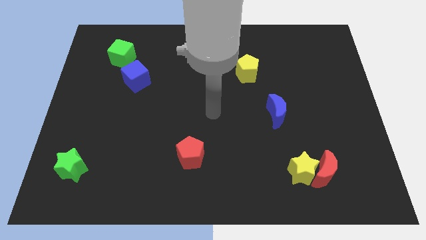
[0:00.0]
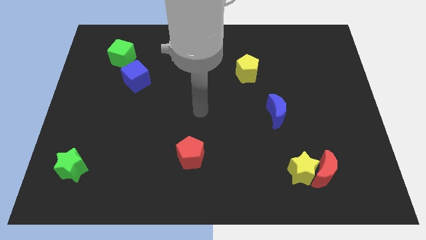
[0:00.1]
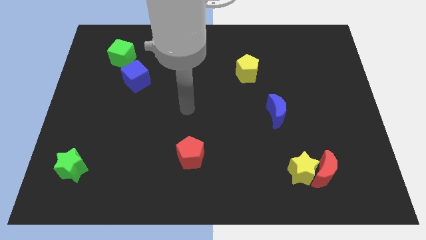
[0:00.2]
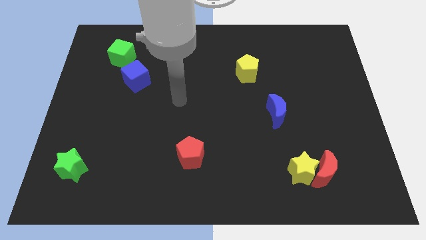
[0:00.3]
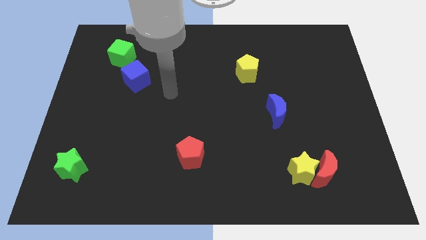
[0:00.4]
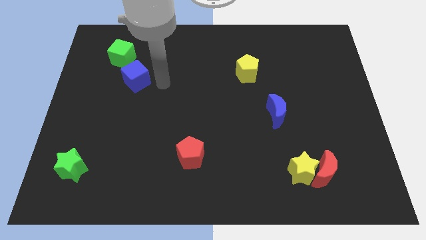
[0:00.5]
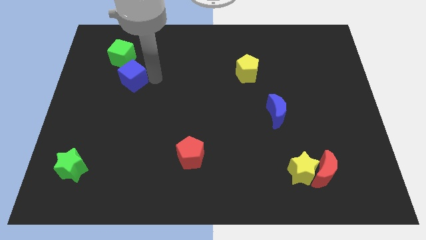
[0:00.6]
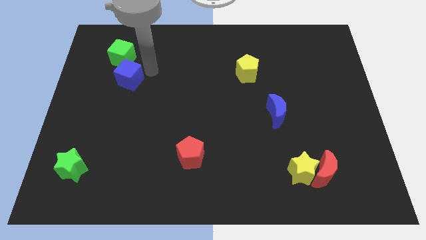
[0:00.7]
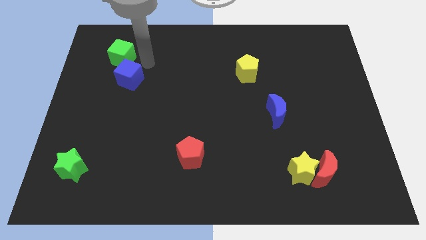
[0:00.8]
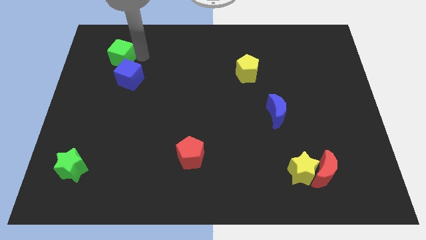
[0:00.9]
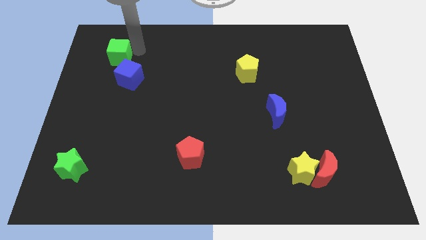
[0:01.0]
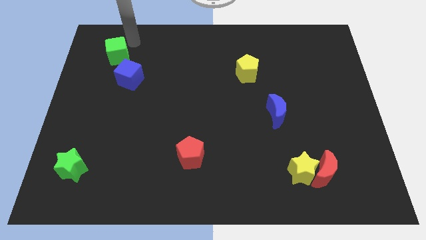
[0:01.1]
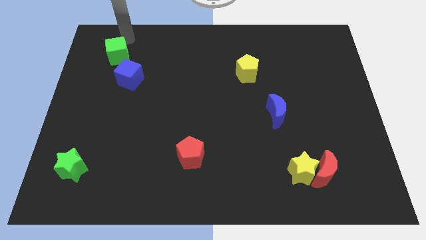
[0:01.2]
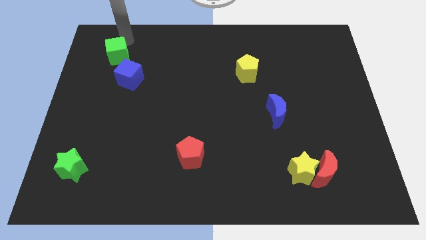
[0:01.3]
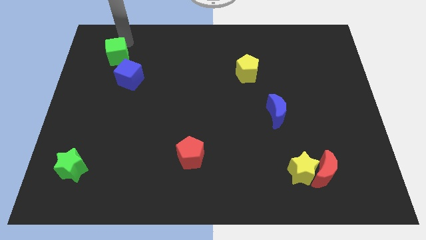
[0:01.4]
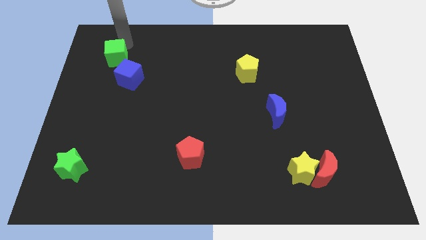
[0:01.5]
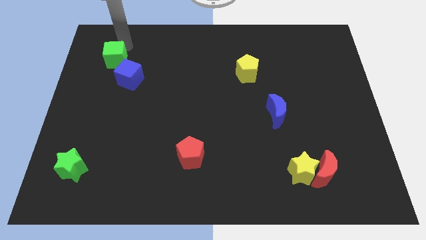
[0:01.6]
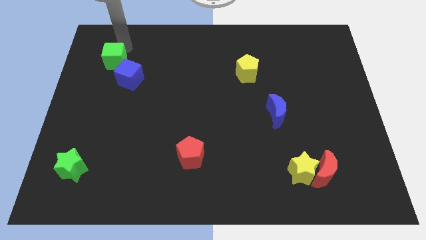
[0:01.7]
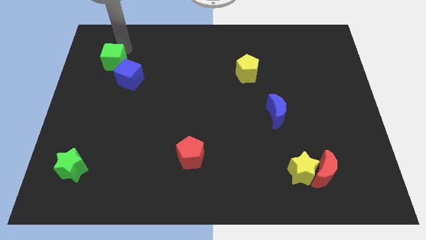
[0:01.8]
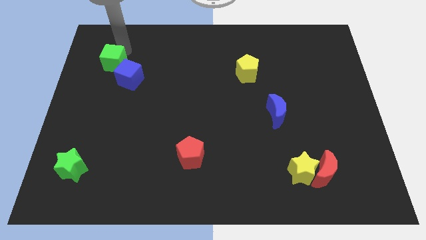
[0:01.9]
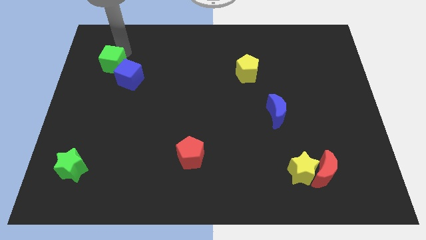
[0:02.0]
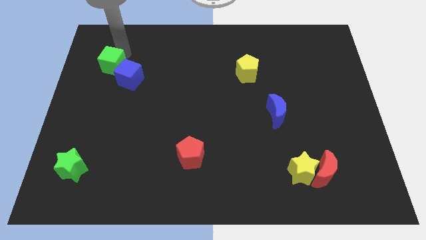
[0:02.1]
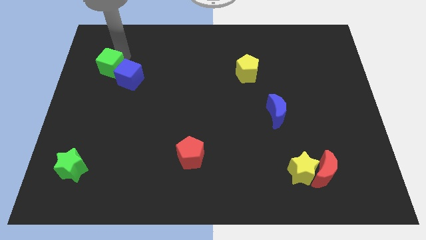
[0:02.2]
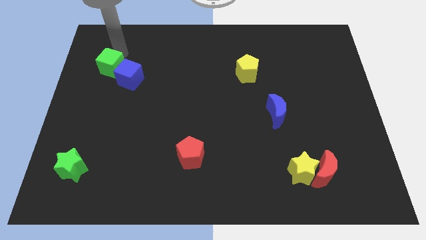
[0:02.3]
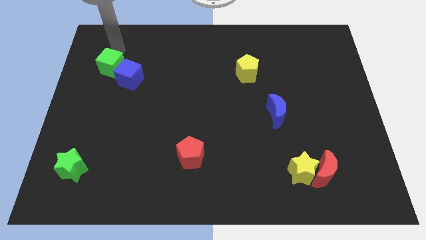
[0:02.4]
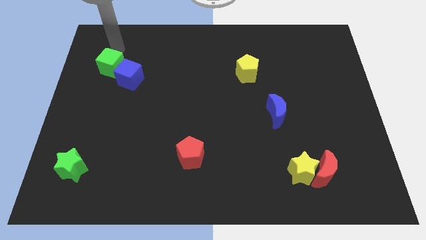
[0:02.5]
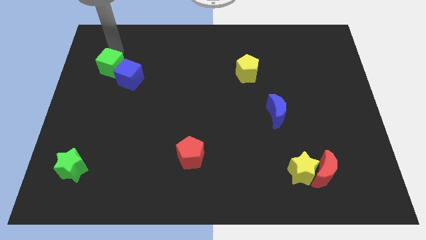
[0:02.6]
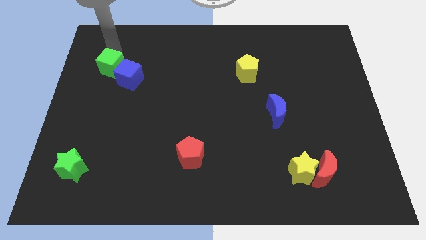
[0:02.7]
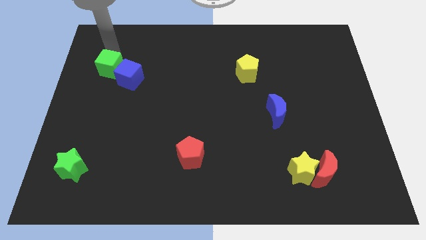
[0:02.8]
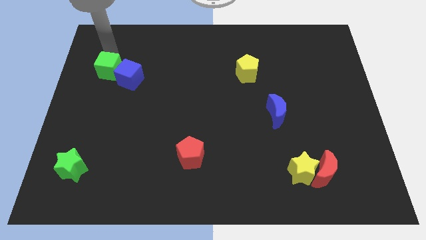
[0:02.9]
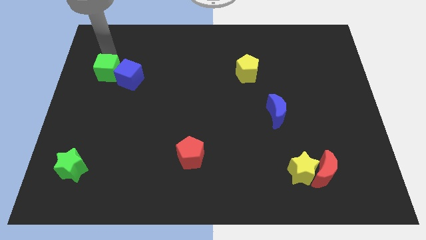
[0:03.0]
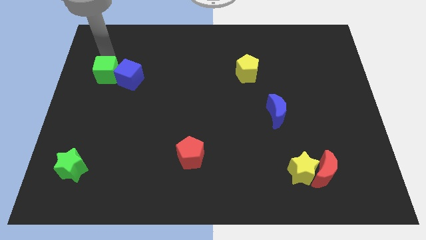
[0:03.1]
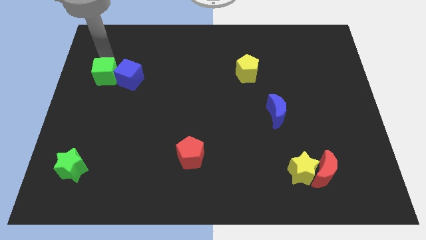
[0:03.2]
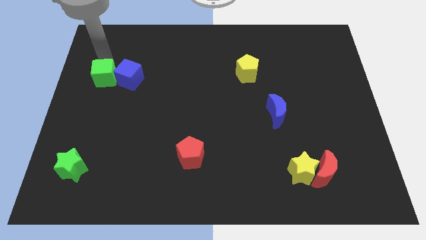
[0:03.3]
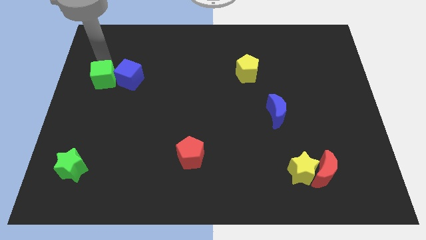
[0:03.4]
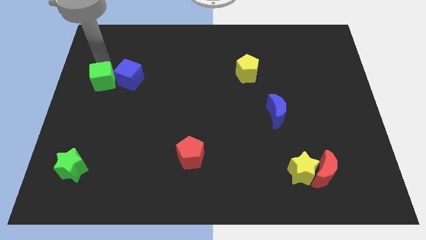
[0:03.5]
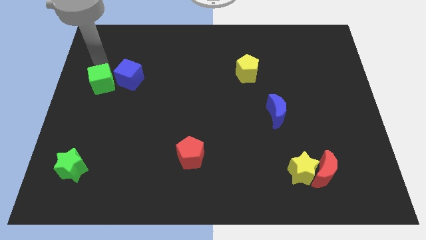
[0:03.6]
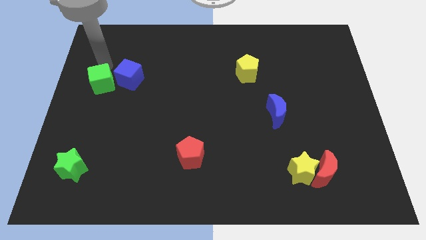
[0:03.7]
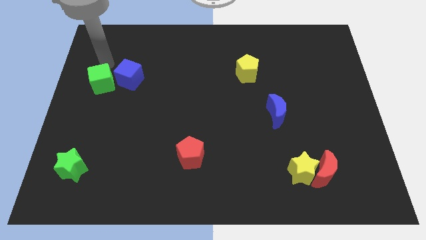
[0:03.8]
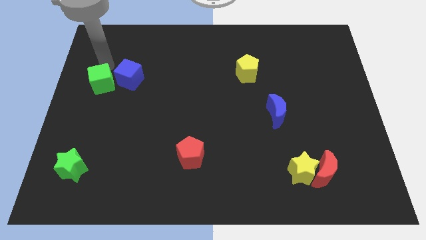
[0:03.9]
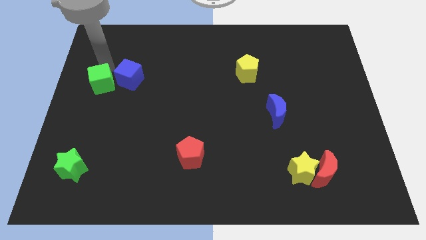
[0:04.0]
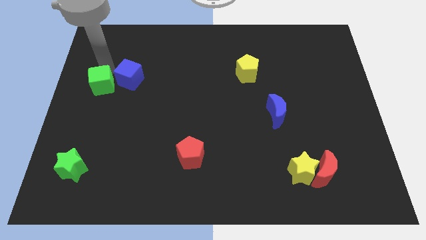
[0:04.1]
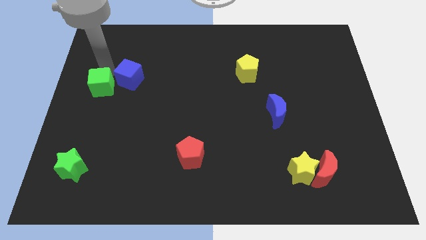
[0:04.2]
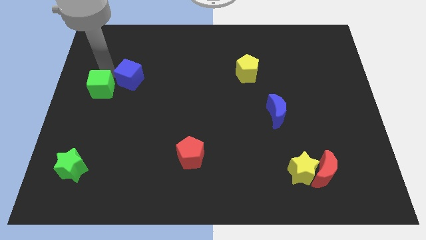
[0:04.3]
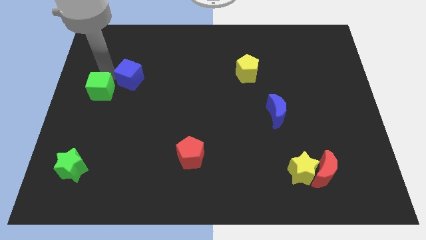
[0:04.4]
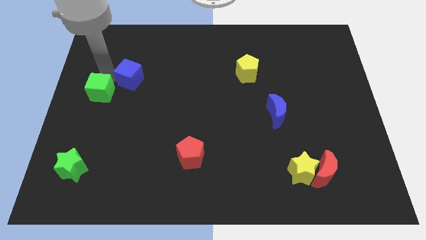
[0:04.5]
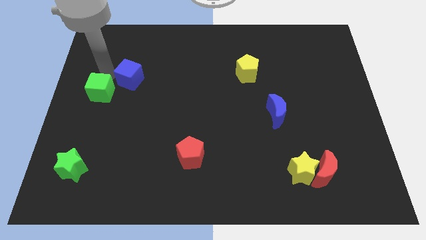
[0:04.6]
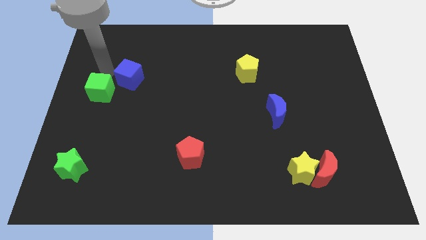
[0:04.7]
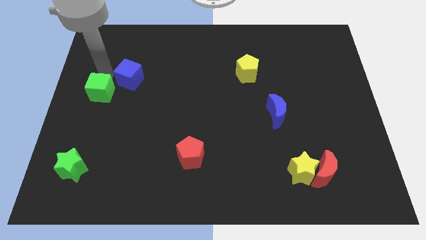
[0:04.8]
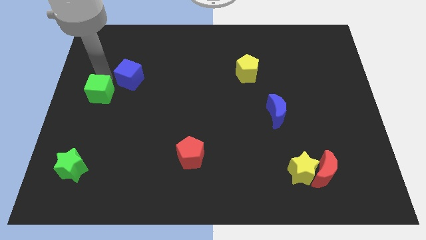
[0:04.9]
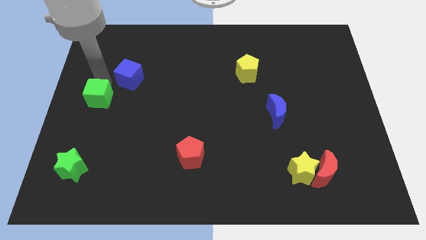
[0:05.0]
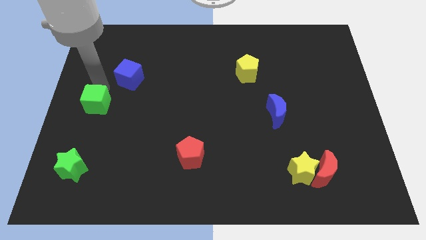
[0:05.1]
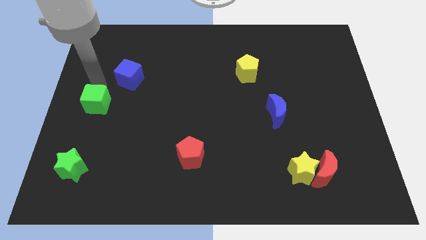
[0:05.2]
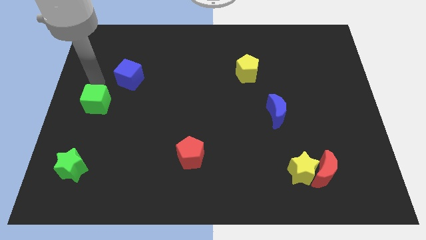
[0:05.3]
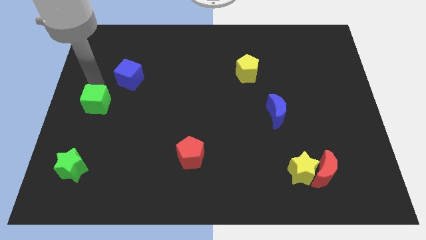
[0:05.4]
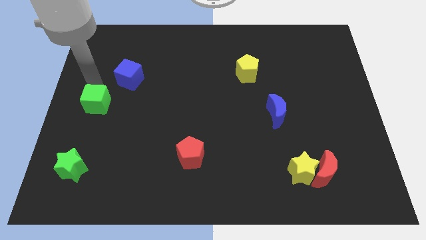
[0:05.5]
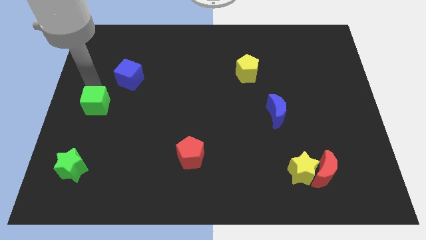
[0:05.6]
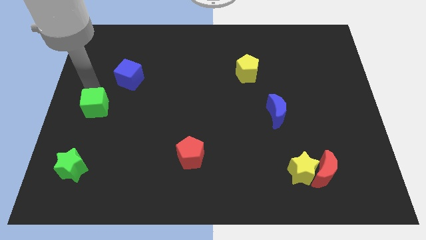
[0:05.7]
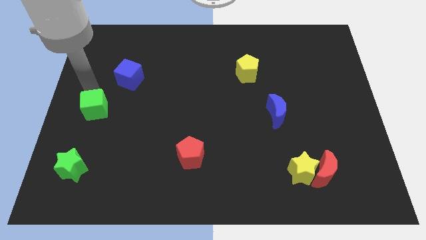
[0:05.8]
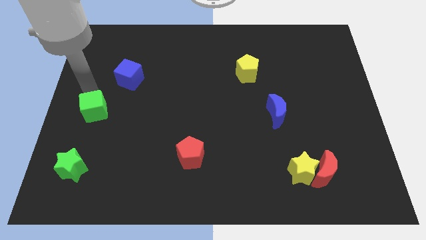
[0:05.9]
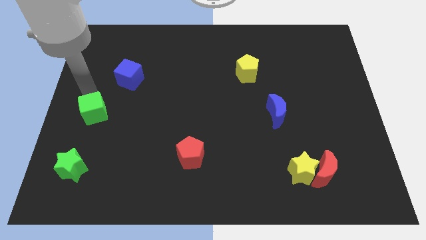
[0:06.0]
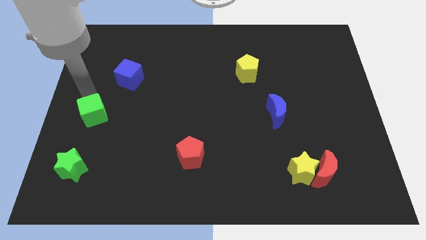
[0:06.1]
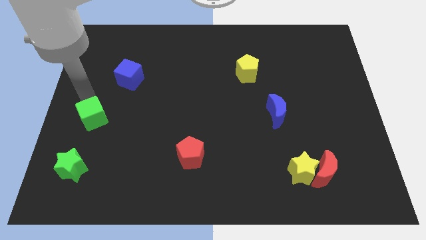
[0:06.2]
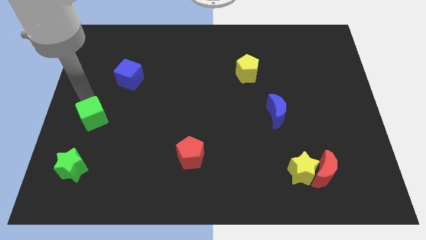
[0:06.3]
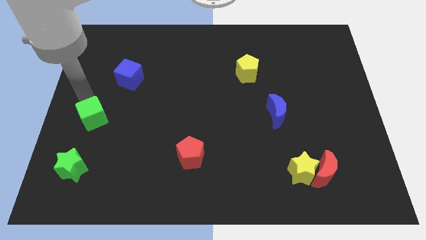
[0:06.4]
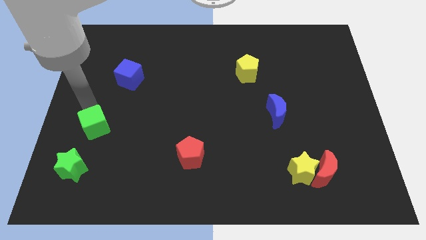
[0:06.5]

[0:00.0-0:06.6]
slide the green cube down

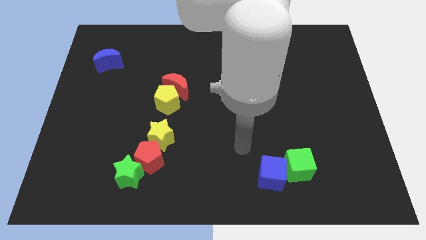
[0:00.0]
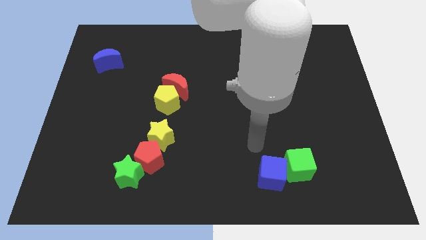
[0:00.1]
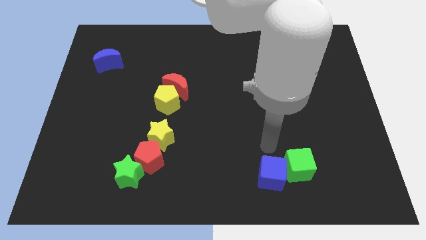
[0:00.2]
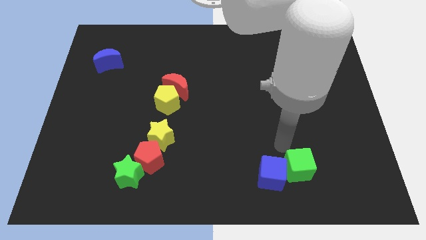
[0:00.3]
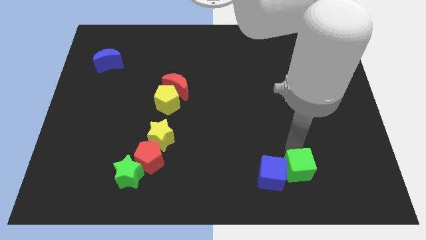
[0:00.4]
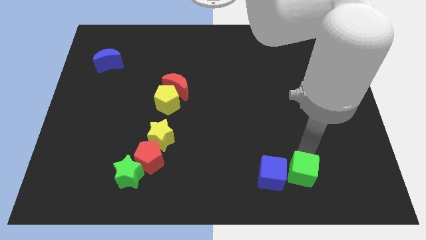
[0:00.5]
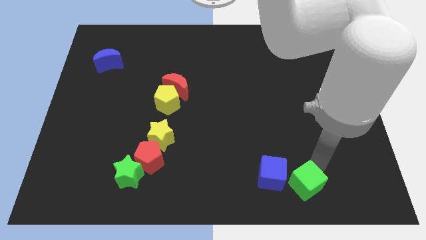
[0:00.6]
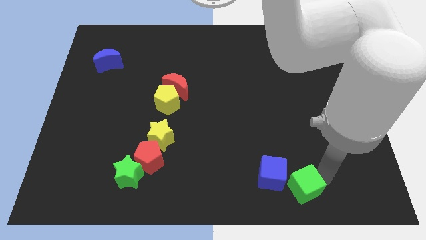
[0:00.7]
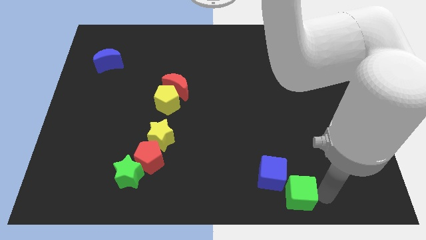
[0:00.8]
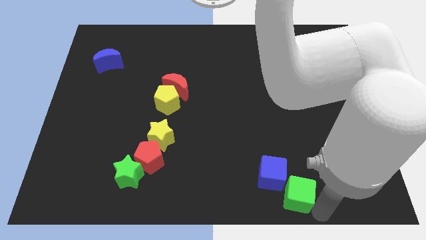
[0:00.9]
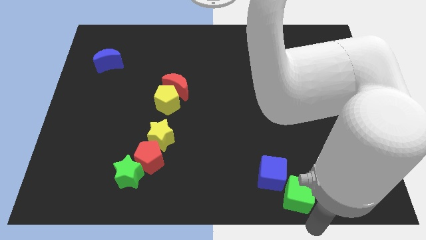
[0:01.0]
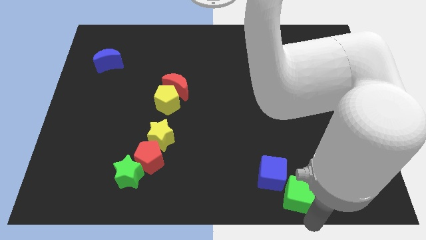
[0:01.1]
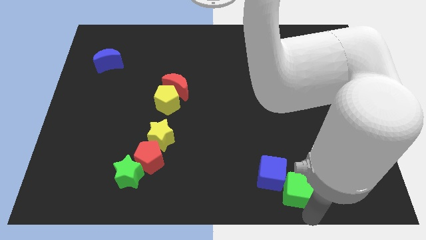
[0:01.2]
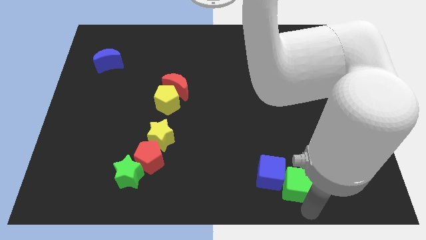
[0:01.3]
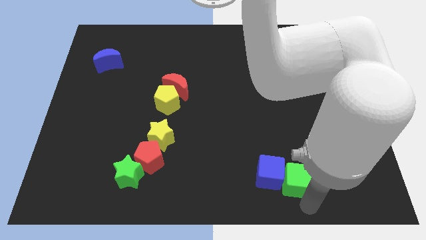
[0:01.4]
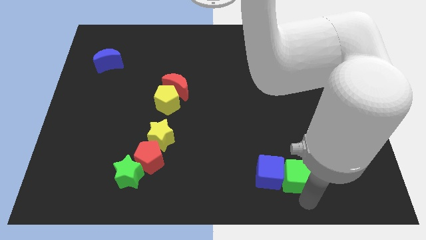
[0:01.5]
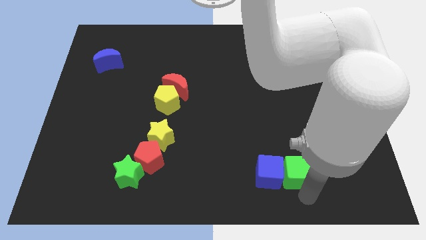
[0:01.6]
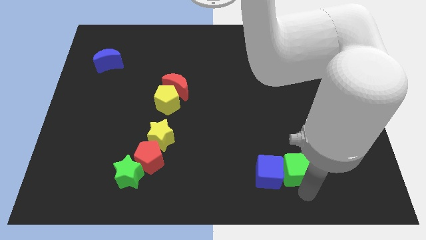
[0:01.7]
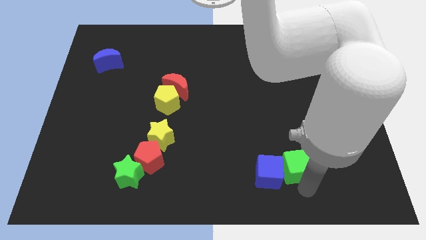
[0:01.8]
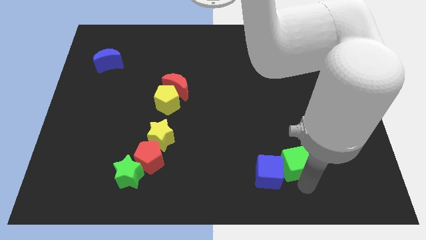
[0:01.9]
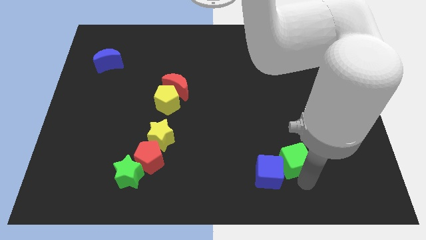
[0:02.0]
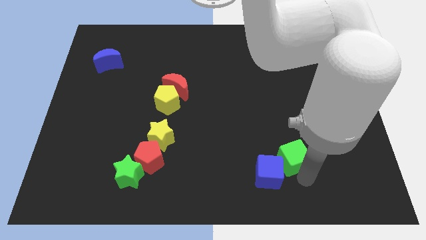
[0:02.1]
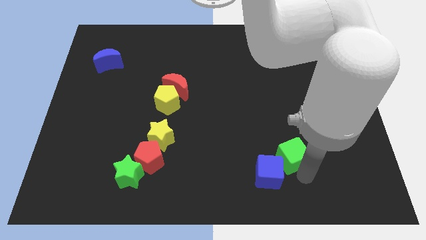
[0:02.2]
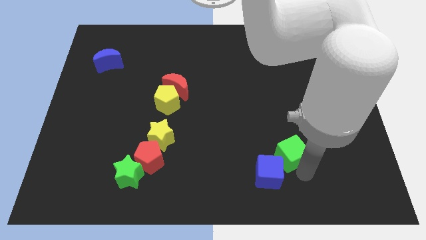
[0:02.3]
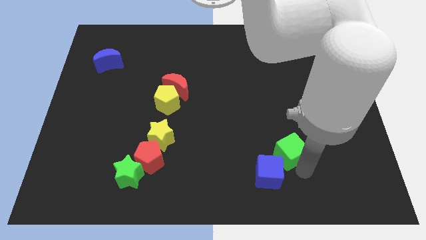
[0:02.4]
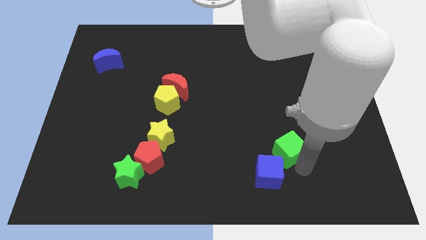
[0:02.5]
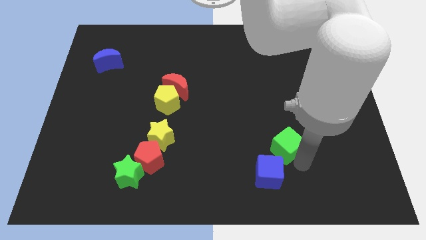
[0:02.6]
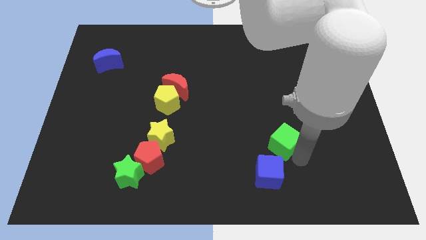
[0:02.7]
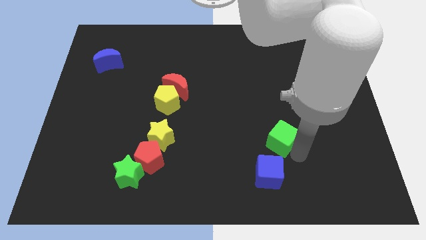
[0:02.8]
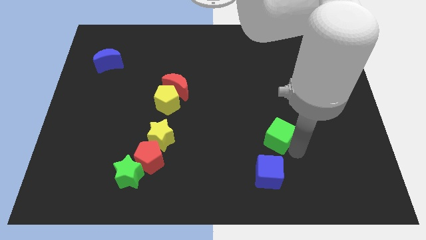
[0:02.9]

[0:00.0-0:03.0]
slightly slide the green cube diagonally up and left
